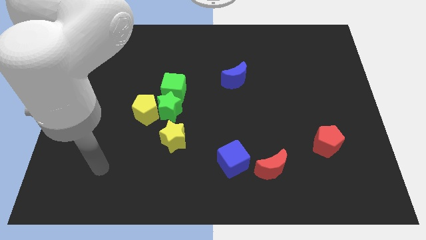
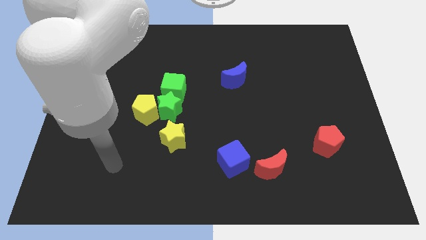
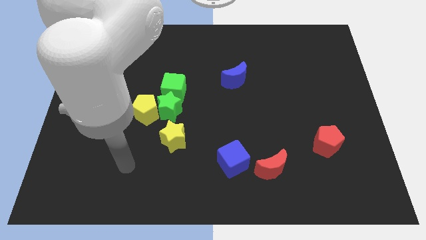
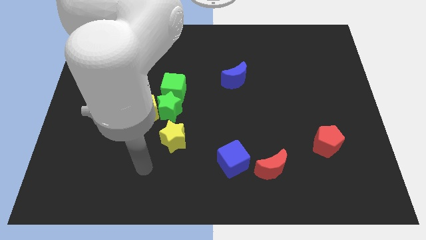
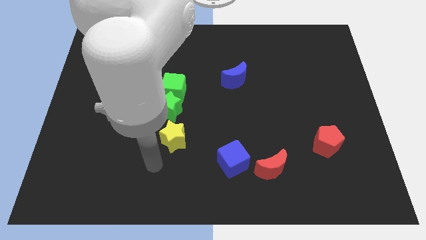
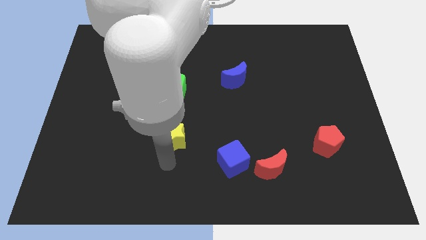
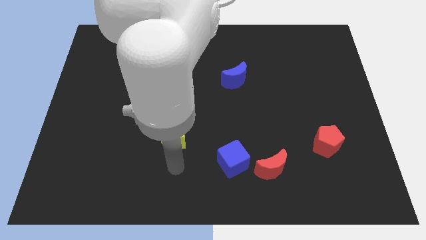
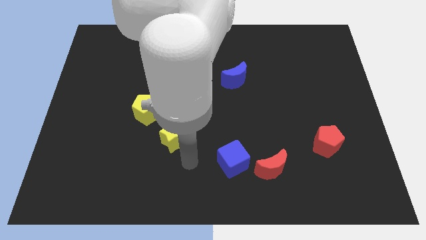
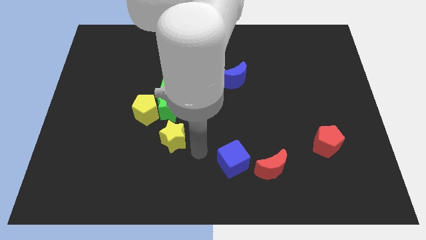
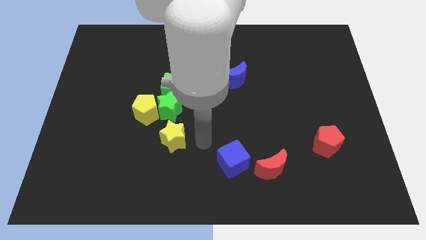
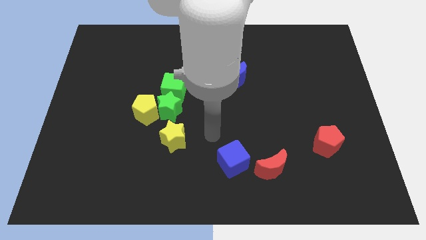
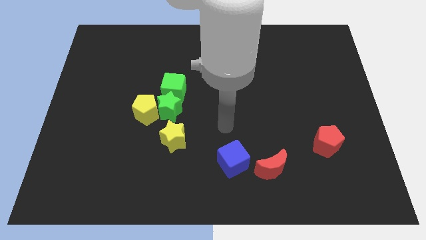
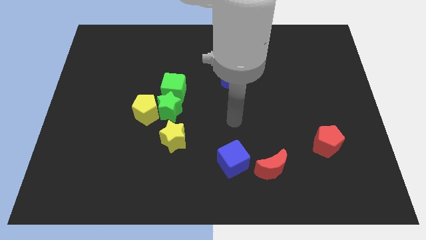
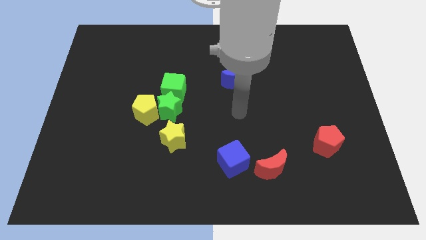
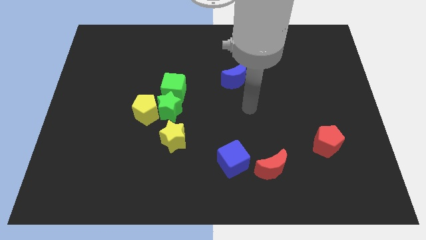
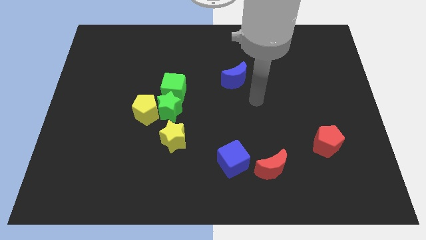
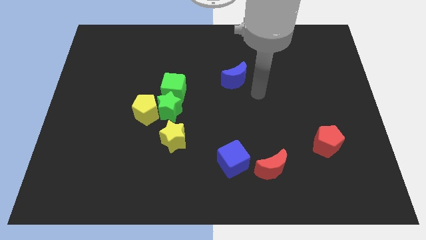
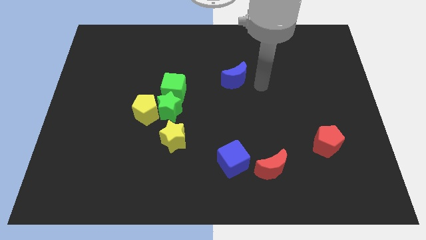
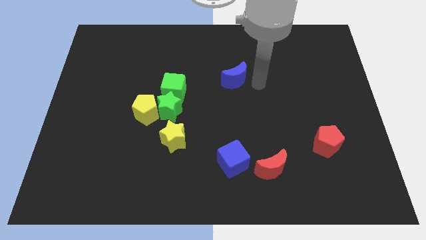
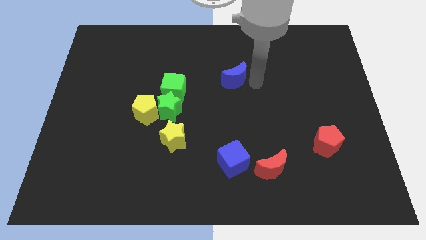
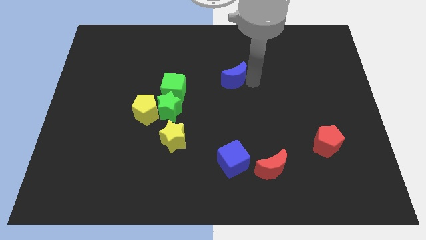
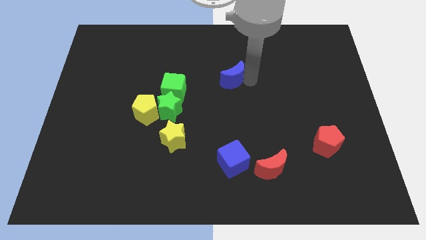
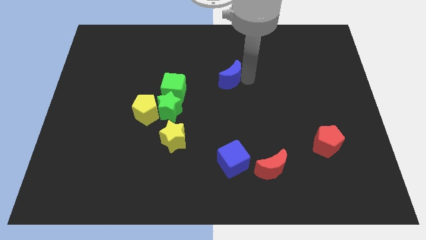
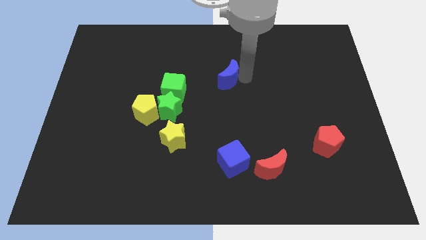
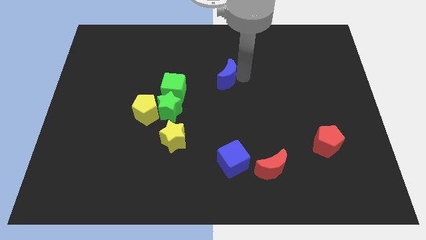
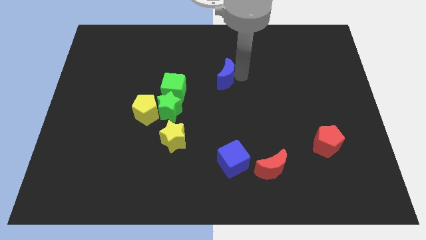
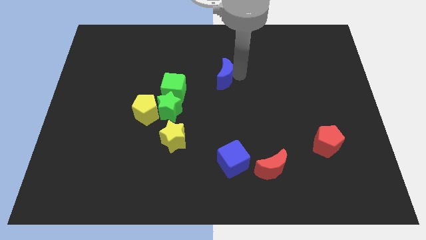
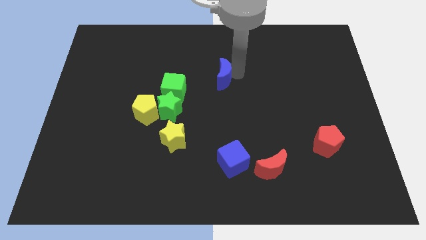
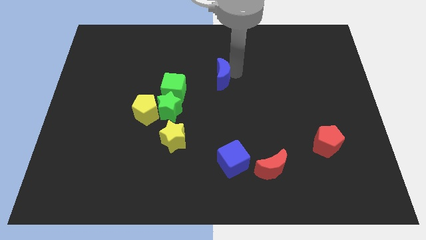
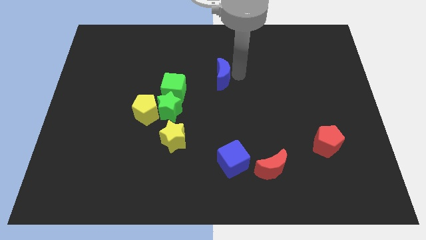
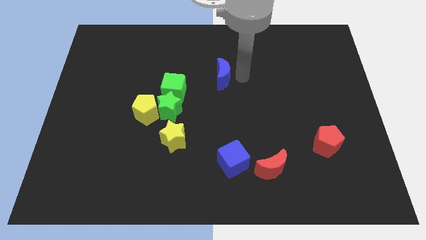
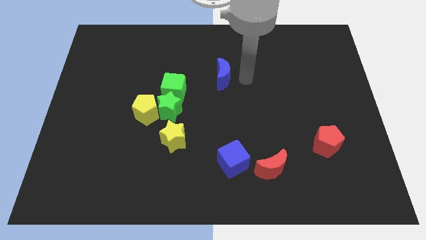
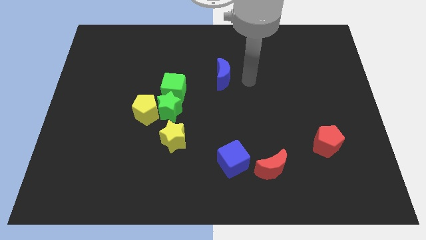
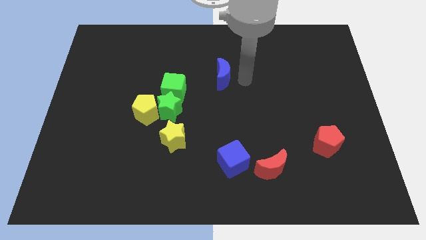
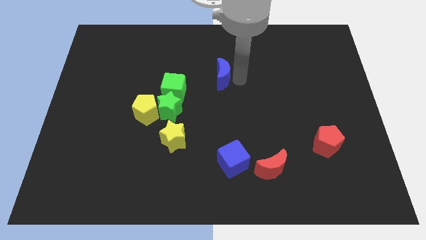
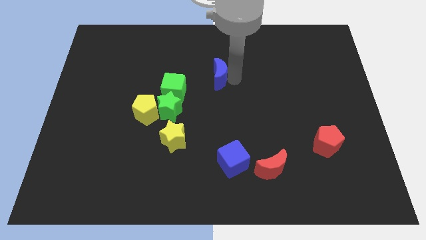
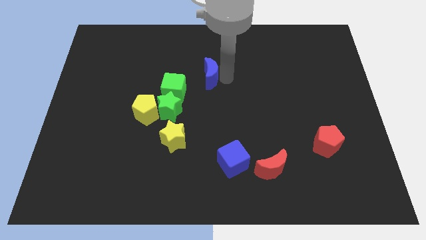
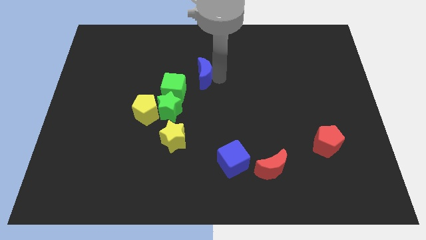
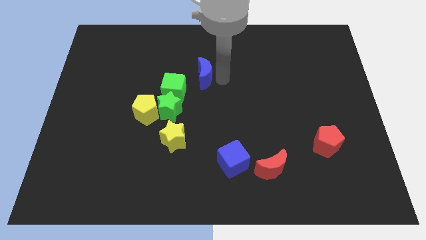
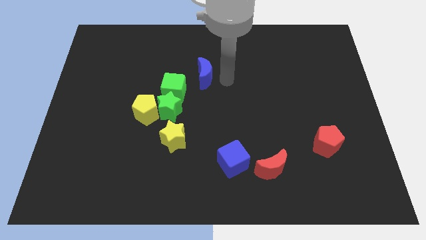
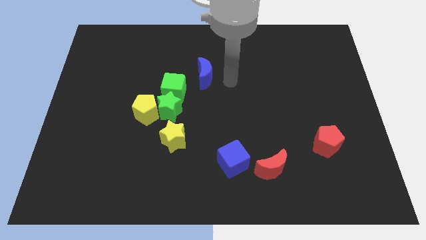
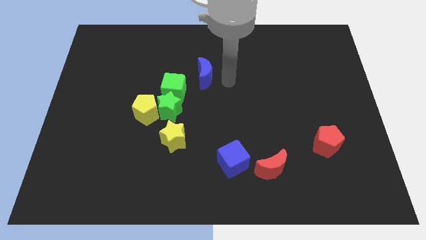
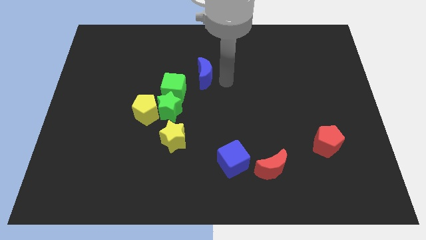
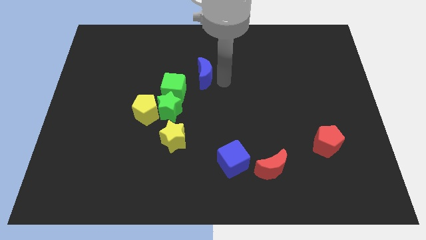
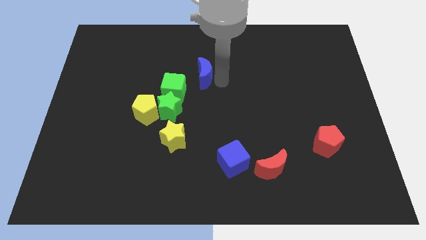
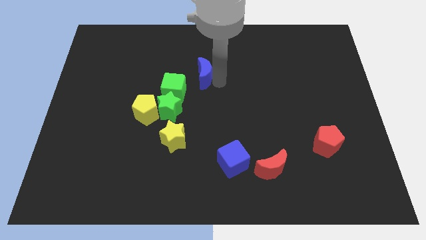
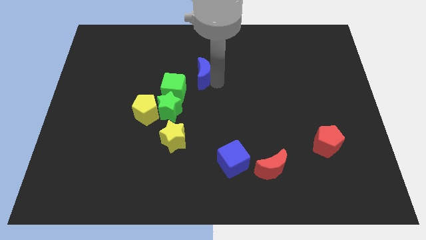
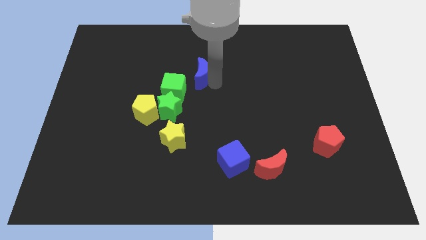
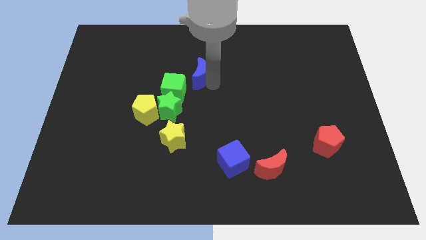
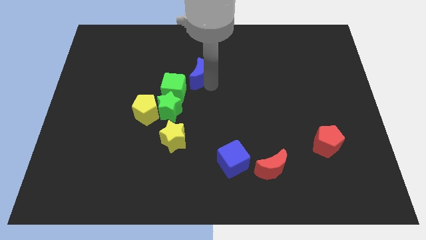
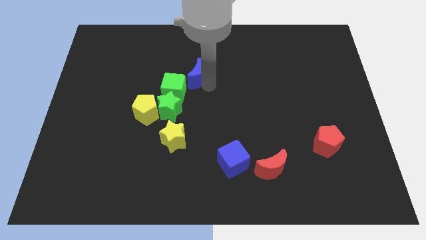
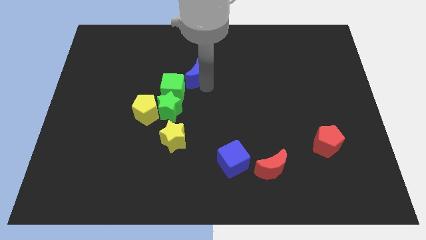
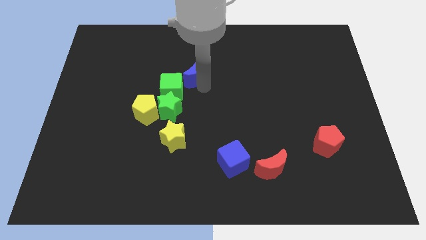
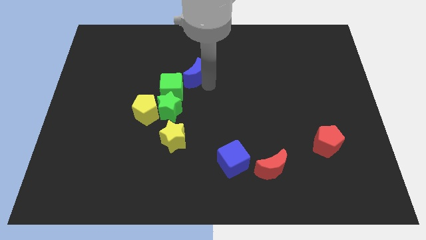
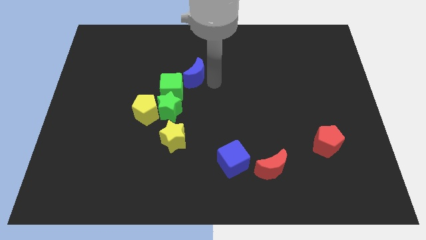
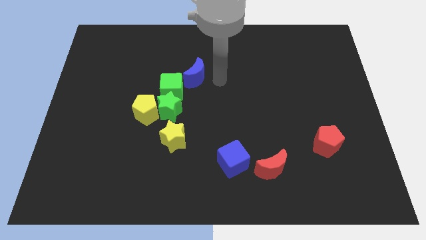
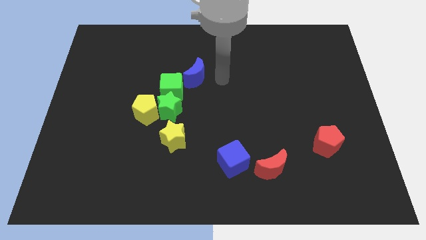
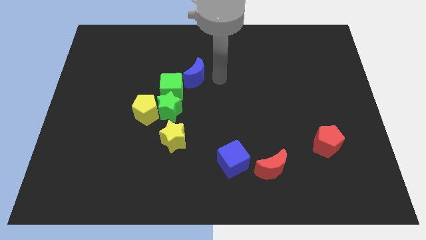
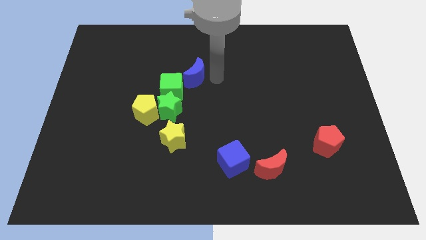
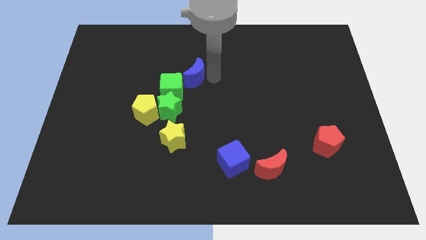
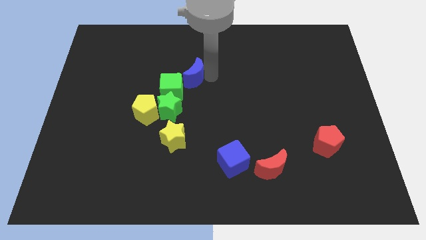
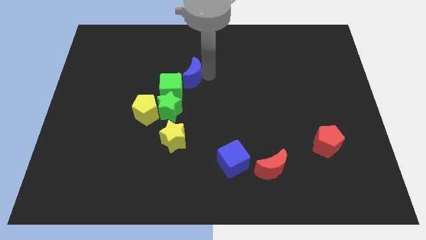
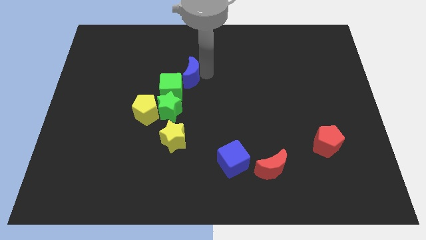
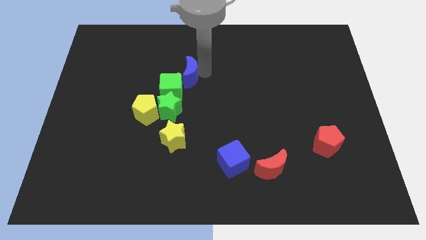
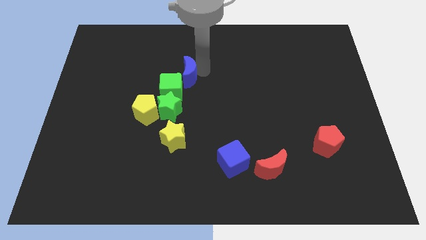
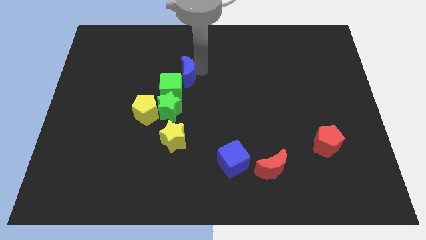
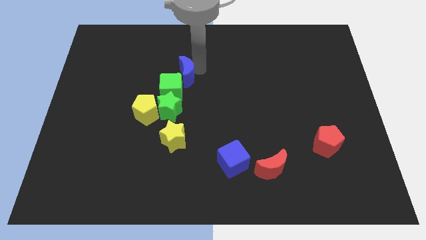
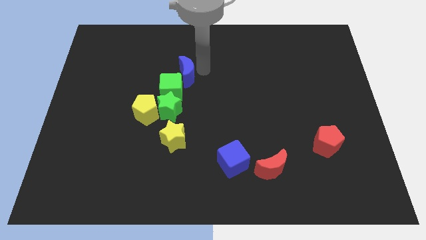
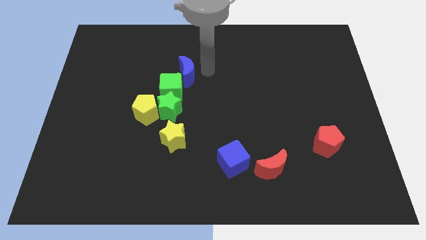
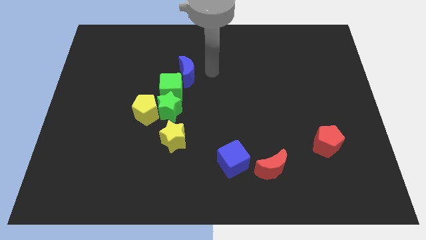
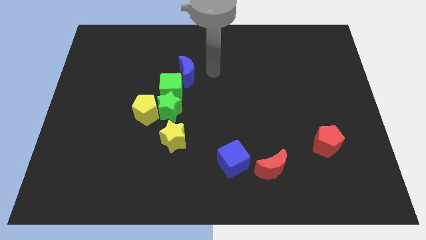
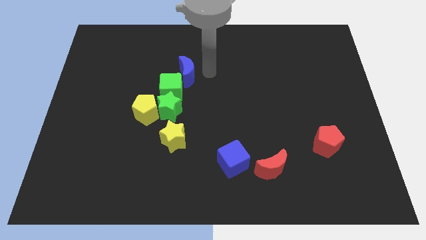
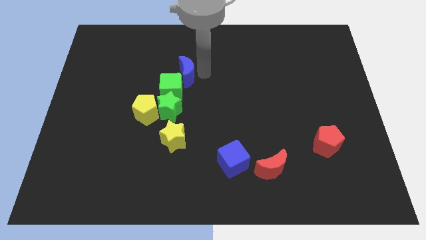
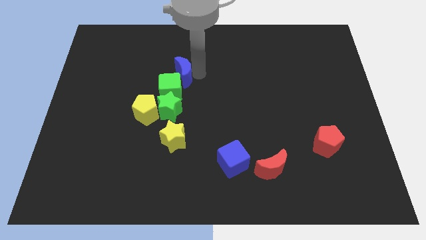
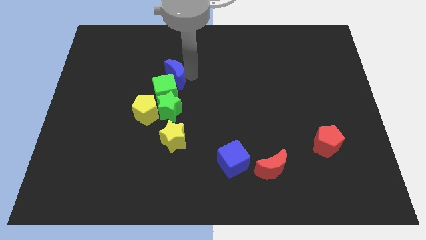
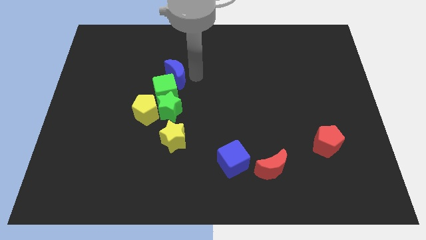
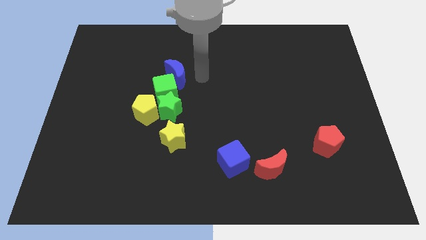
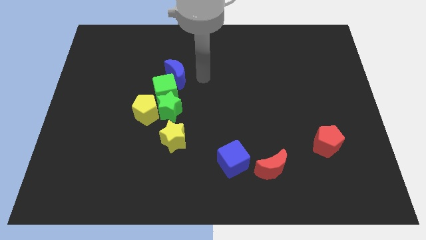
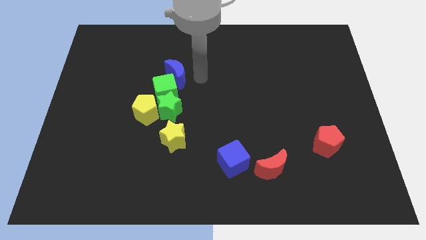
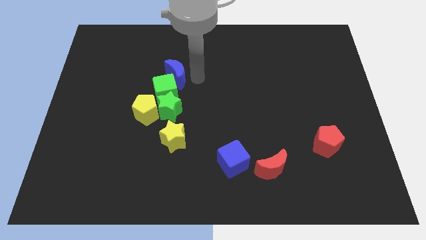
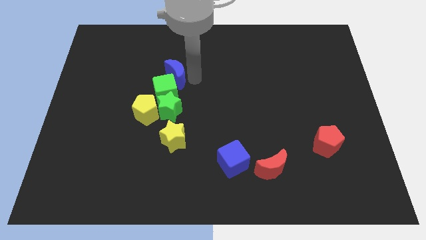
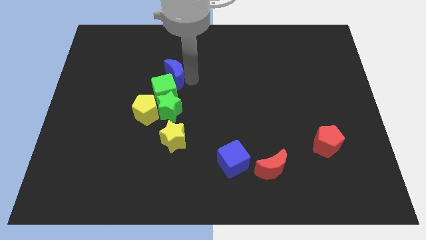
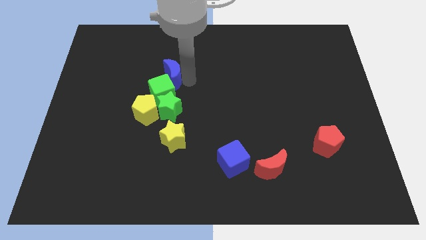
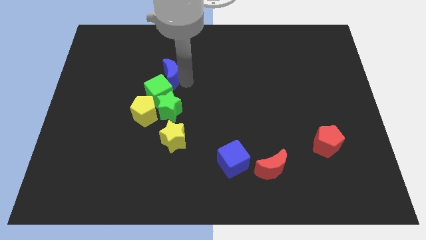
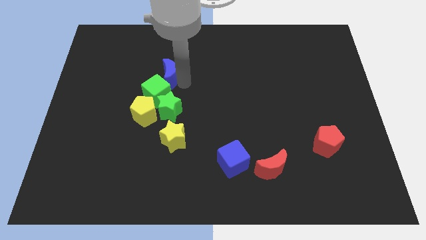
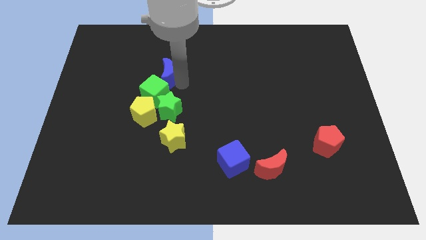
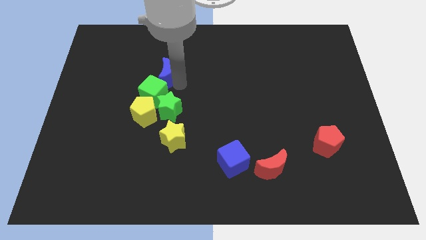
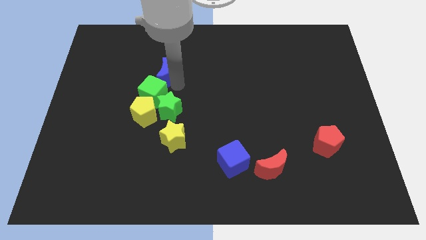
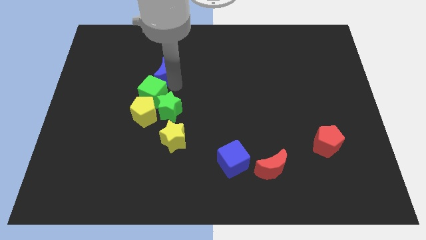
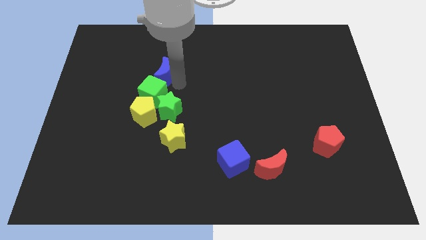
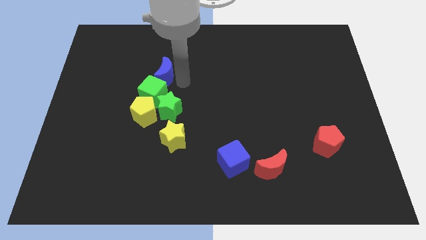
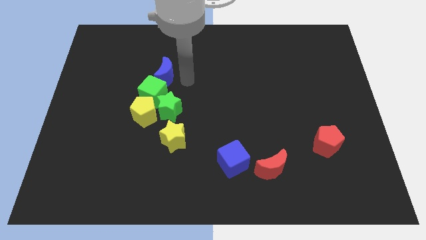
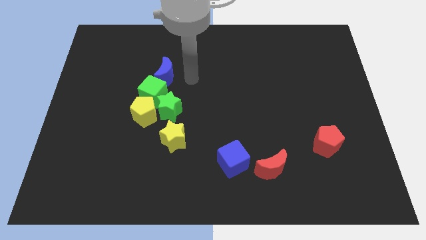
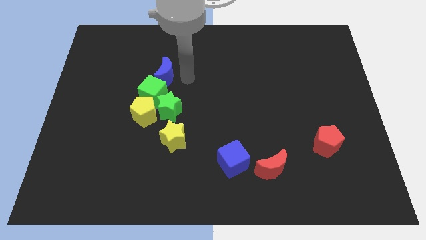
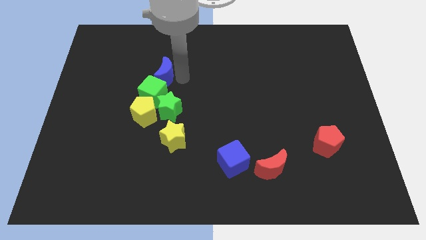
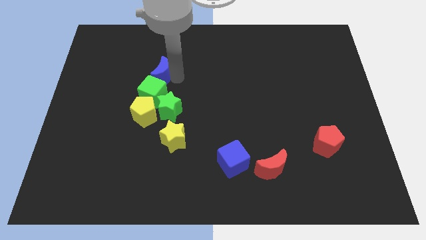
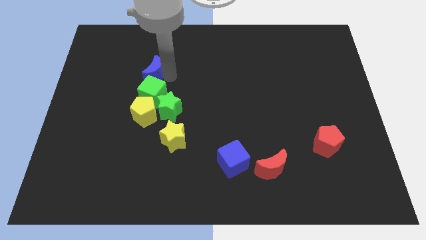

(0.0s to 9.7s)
move the blue moon left
